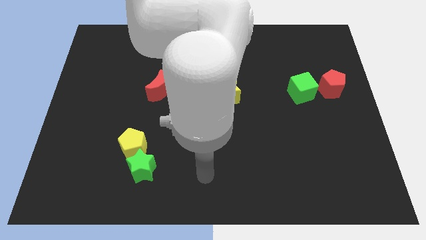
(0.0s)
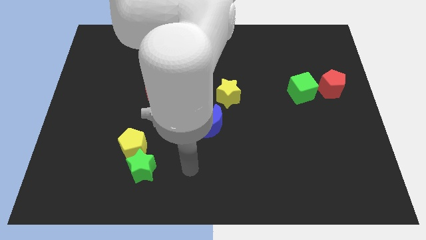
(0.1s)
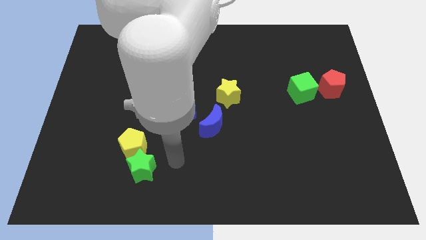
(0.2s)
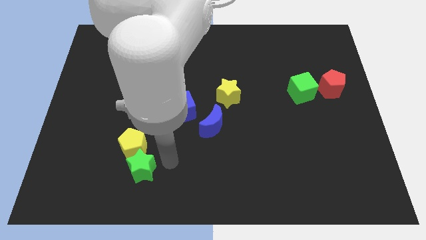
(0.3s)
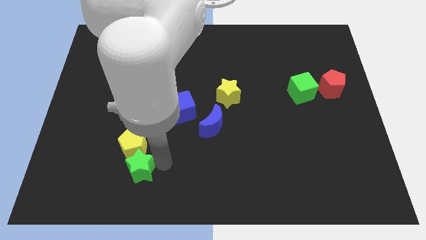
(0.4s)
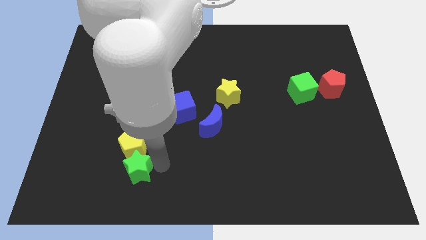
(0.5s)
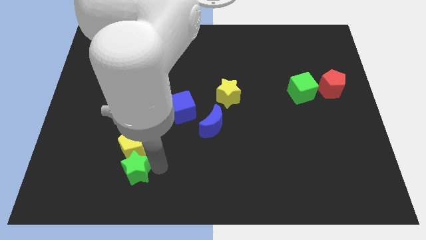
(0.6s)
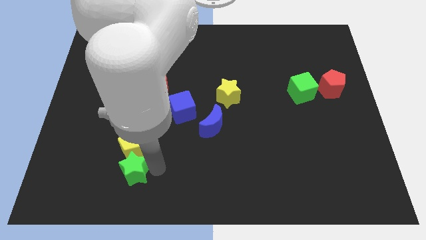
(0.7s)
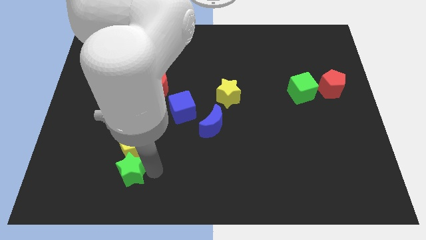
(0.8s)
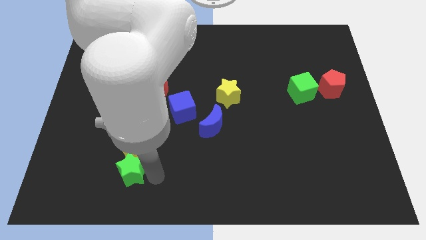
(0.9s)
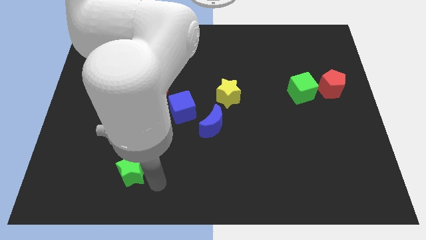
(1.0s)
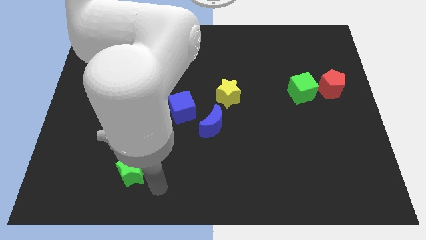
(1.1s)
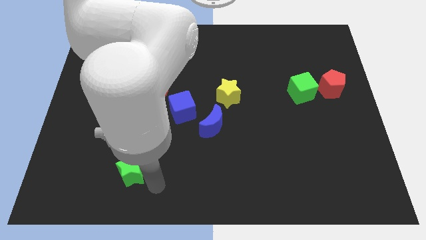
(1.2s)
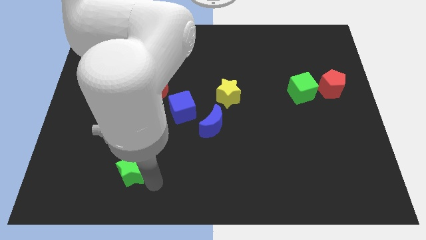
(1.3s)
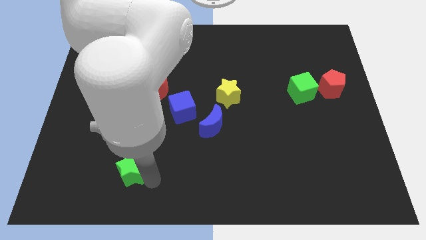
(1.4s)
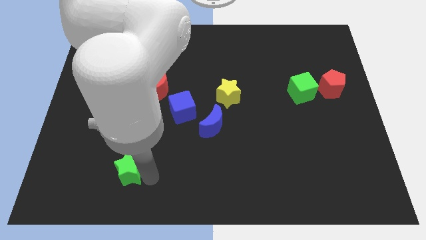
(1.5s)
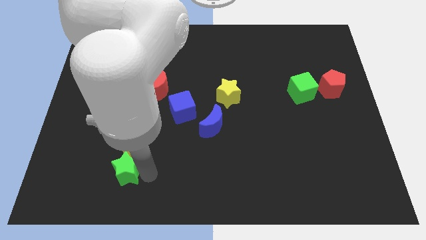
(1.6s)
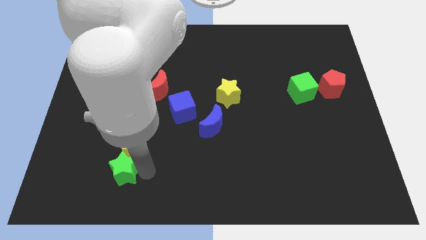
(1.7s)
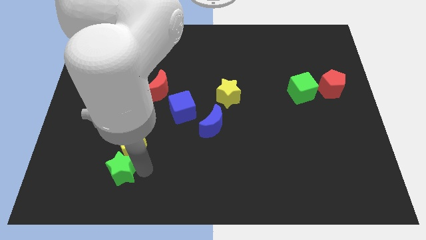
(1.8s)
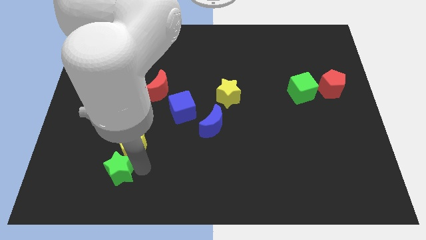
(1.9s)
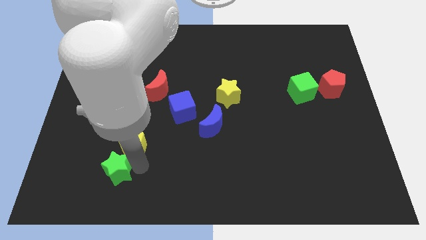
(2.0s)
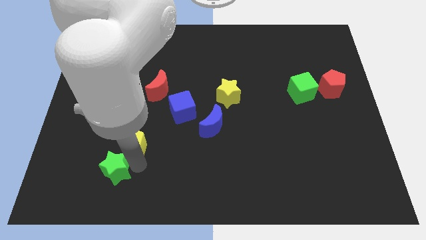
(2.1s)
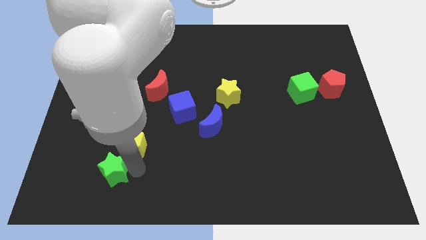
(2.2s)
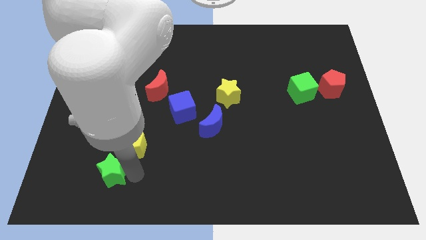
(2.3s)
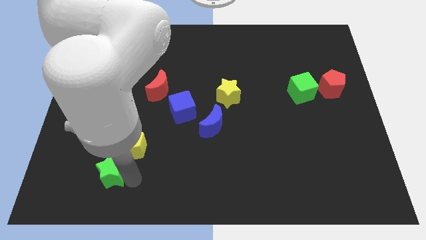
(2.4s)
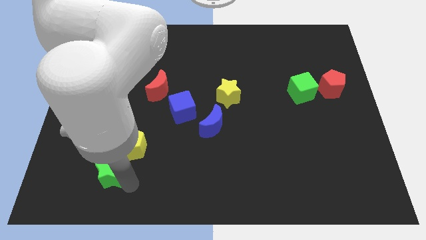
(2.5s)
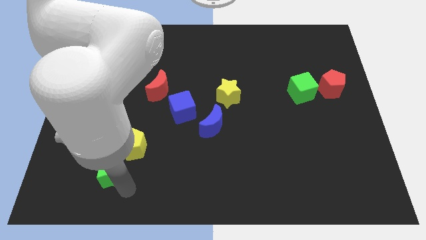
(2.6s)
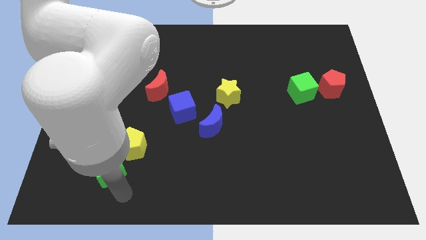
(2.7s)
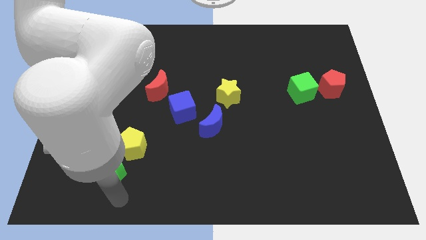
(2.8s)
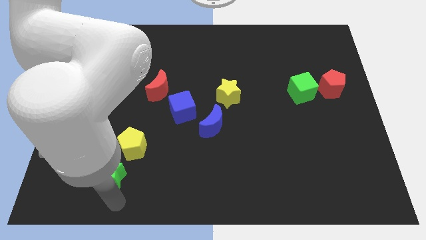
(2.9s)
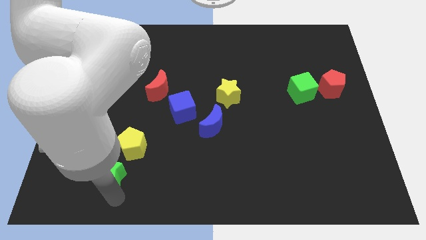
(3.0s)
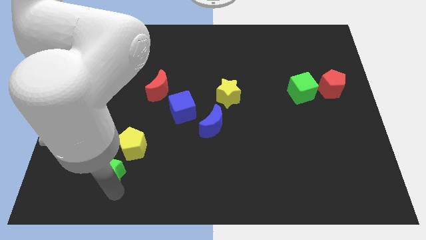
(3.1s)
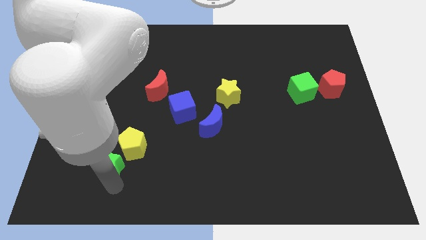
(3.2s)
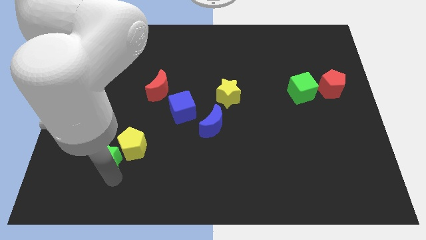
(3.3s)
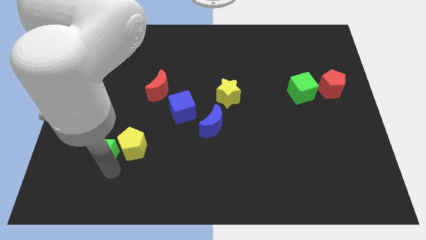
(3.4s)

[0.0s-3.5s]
push the green star slightly diagonally up and left

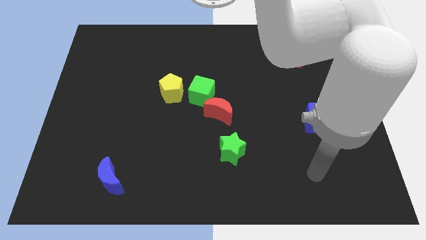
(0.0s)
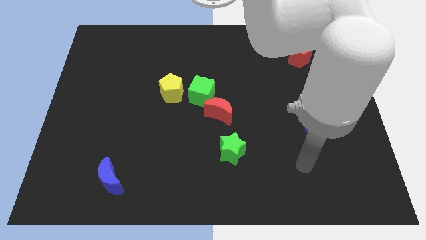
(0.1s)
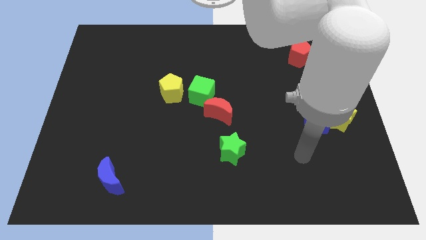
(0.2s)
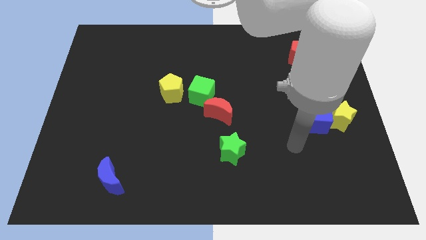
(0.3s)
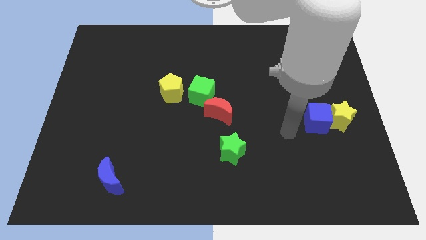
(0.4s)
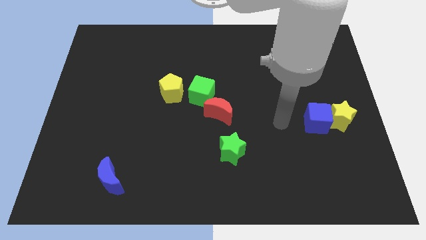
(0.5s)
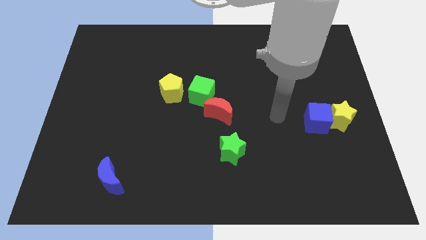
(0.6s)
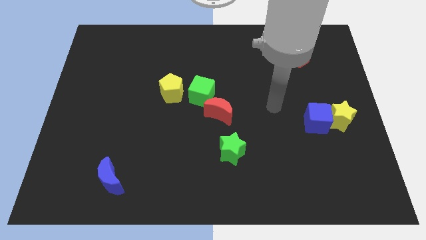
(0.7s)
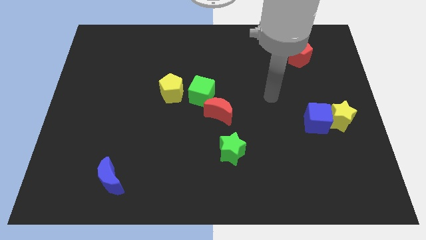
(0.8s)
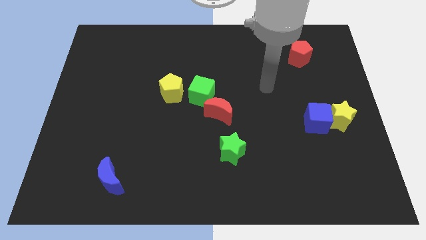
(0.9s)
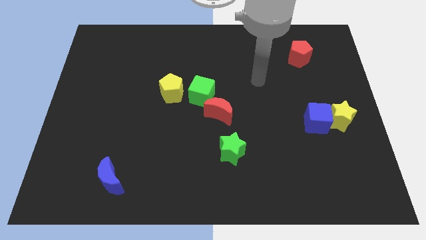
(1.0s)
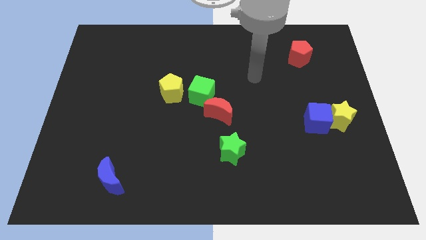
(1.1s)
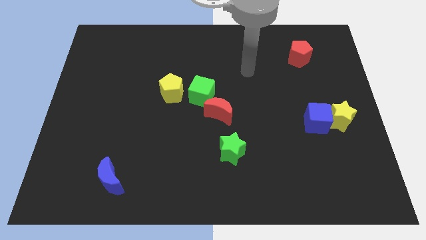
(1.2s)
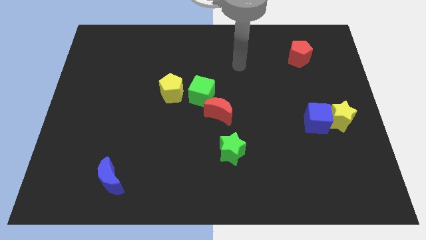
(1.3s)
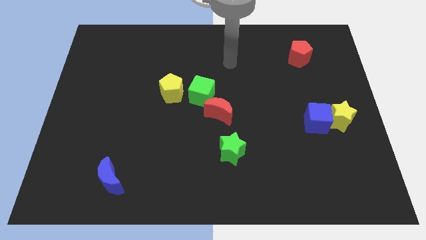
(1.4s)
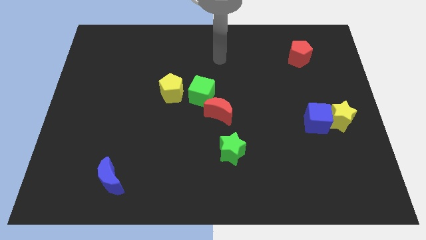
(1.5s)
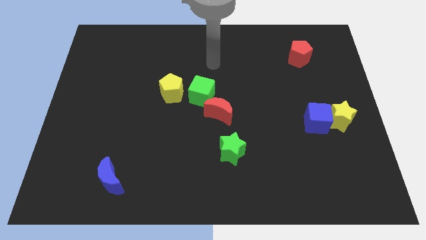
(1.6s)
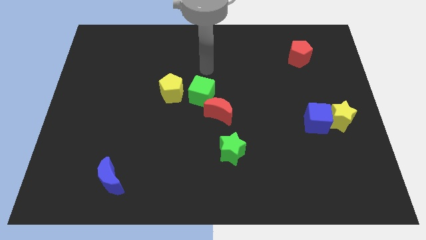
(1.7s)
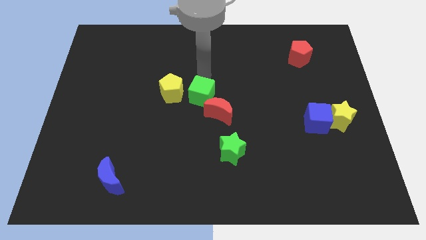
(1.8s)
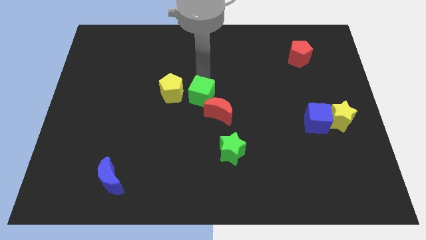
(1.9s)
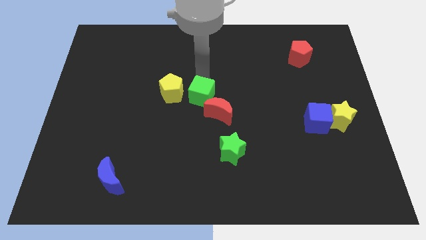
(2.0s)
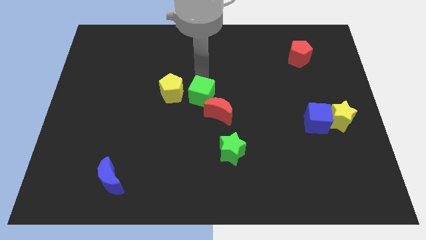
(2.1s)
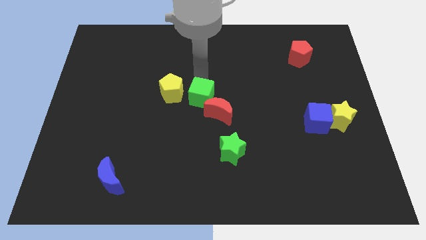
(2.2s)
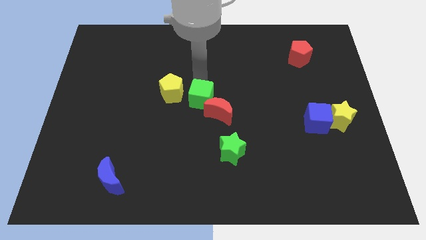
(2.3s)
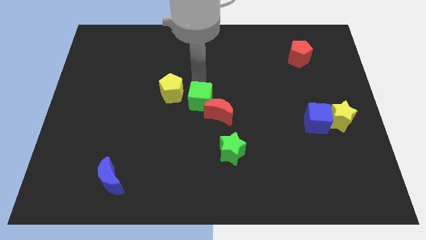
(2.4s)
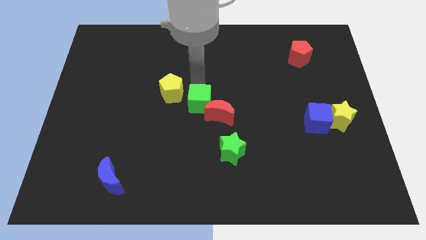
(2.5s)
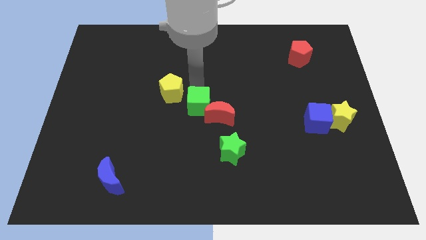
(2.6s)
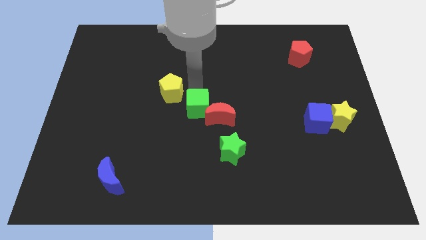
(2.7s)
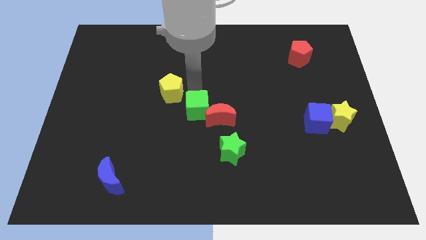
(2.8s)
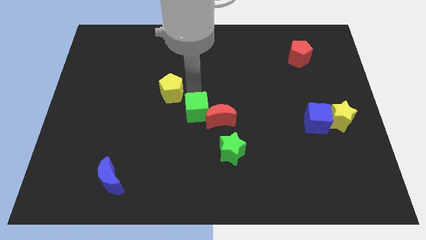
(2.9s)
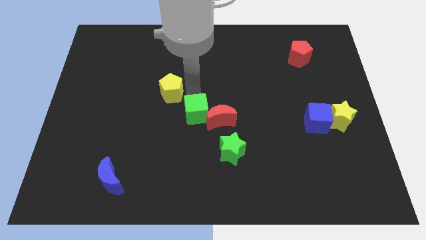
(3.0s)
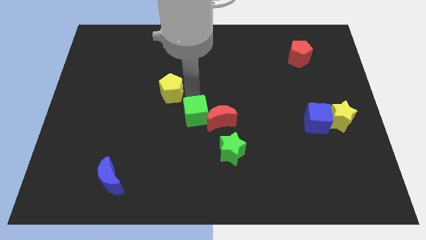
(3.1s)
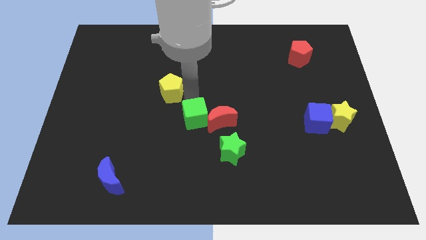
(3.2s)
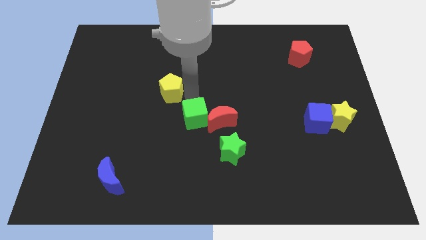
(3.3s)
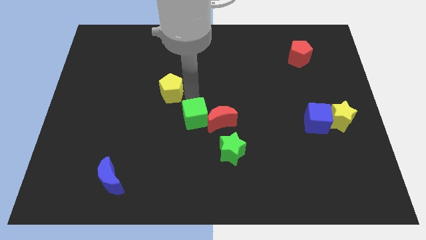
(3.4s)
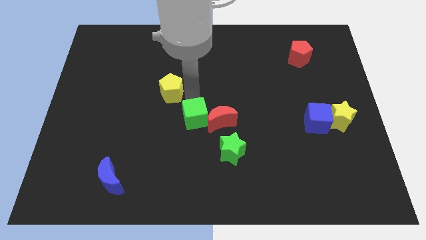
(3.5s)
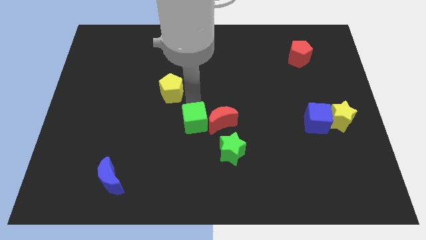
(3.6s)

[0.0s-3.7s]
push the green cube downwards a bit

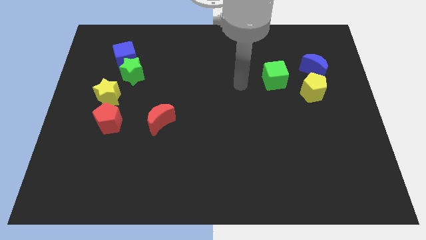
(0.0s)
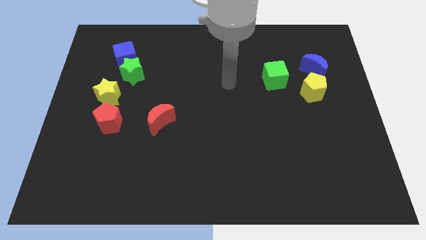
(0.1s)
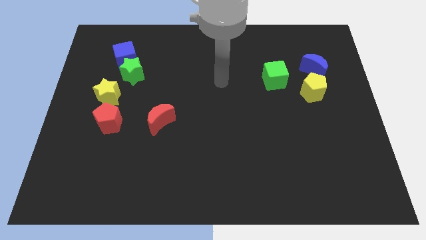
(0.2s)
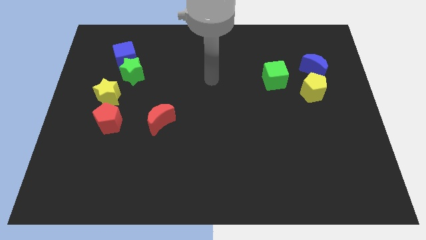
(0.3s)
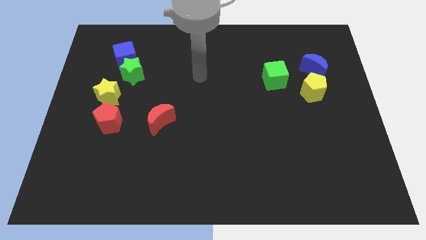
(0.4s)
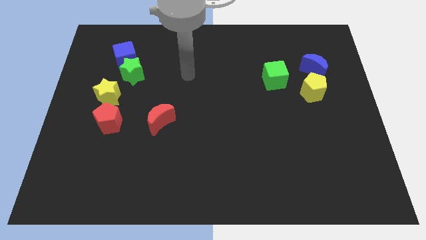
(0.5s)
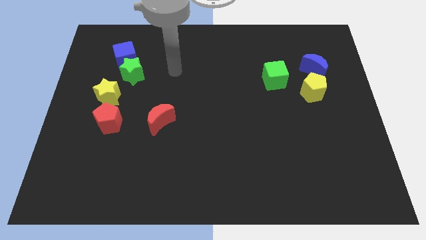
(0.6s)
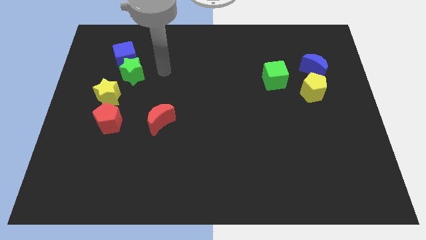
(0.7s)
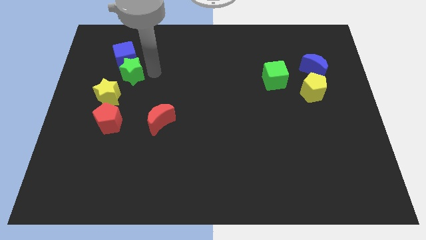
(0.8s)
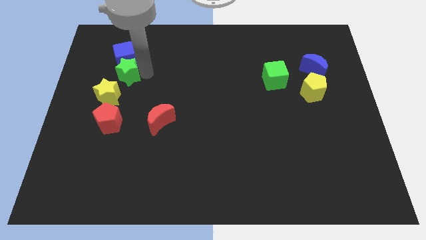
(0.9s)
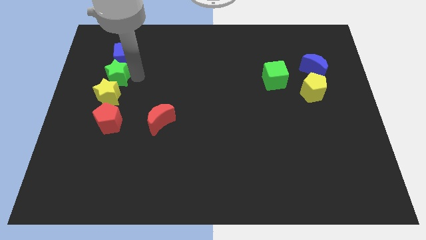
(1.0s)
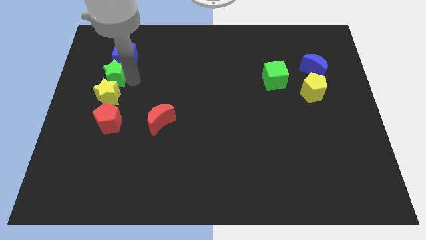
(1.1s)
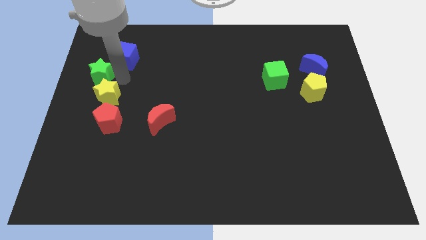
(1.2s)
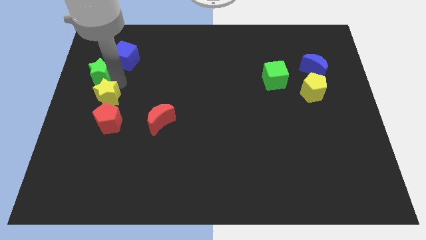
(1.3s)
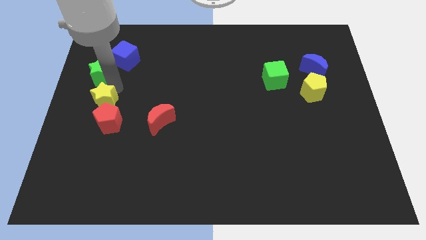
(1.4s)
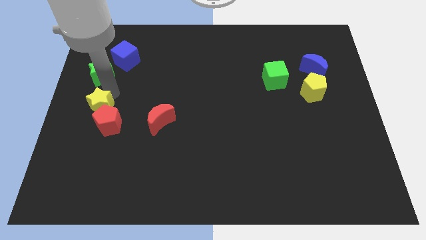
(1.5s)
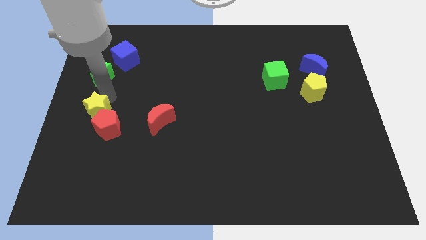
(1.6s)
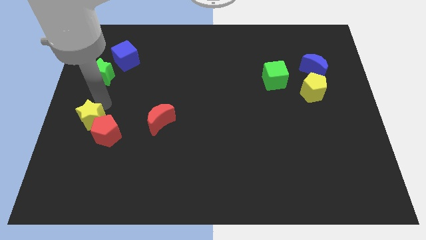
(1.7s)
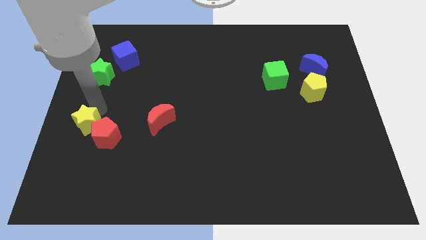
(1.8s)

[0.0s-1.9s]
slightly push the yellow star downwards
